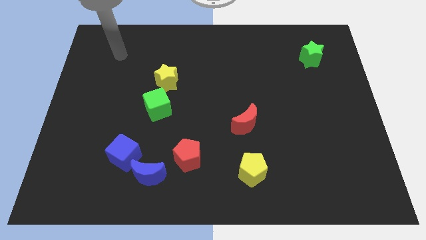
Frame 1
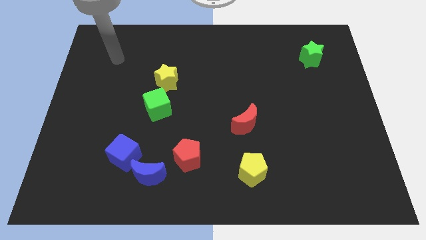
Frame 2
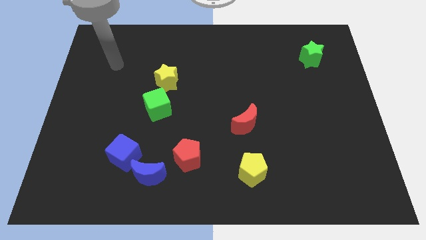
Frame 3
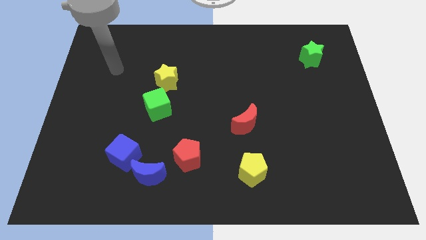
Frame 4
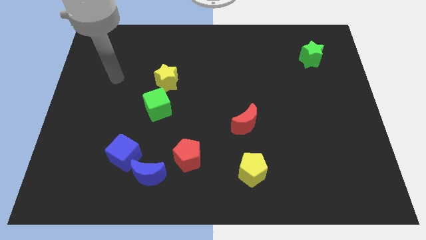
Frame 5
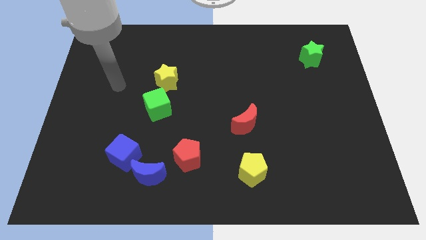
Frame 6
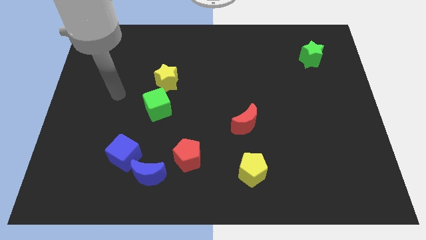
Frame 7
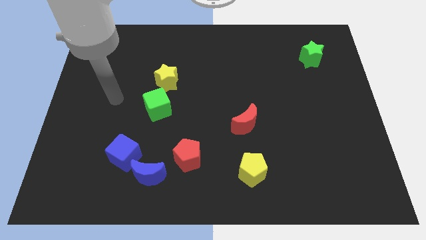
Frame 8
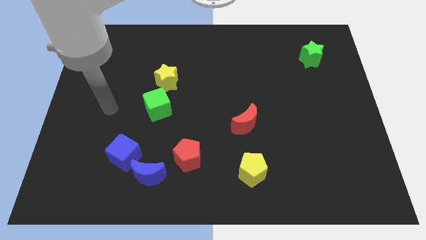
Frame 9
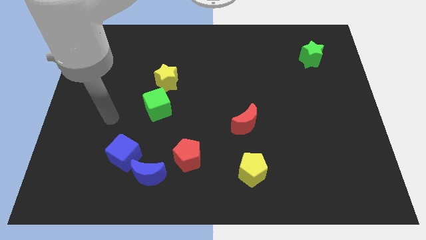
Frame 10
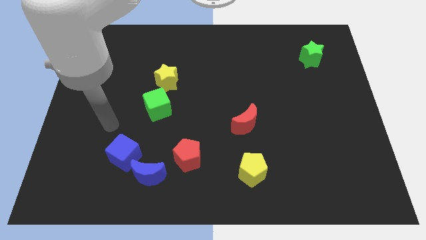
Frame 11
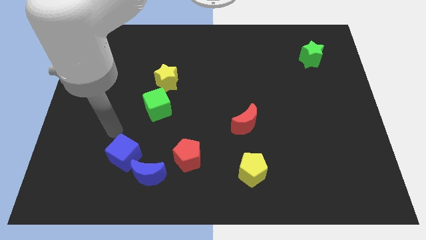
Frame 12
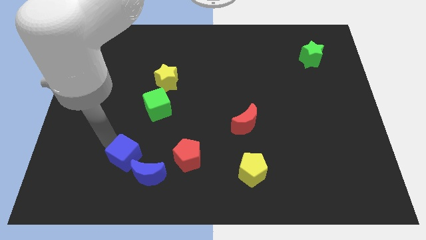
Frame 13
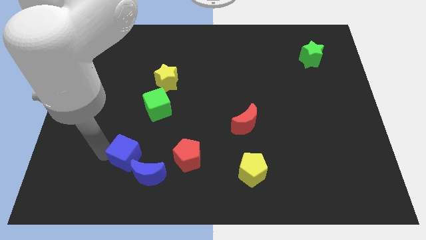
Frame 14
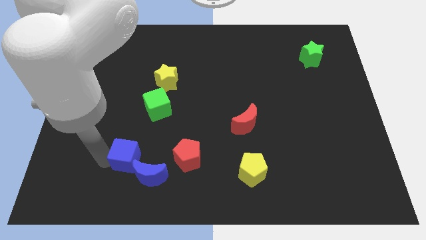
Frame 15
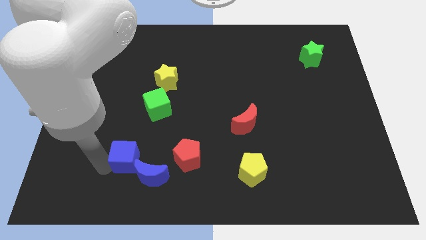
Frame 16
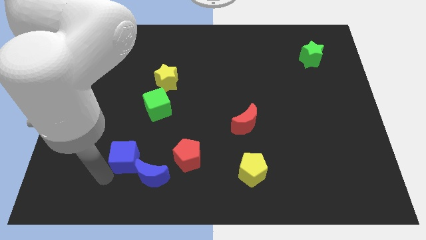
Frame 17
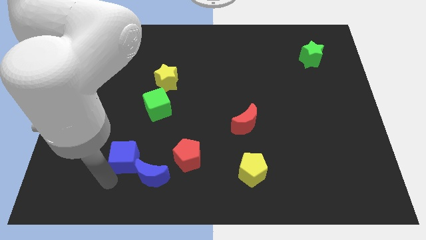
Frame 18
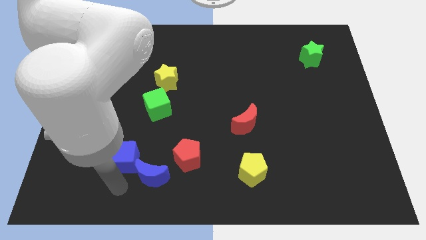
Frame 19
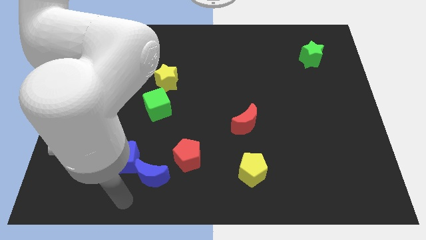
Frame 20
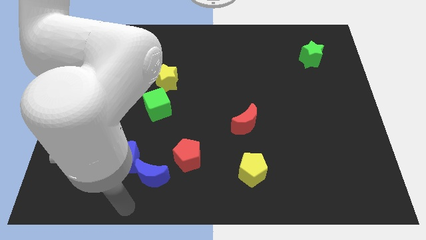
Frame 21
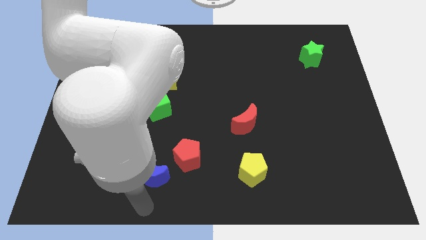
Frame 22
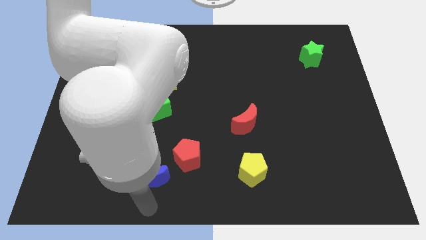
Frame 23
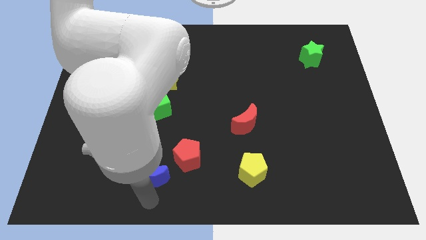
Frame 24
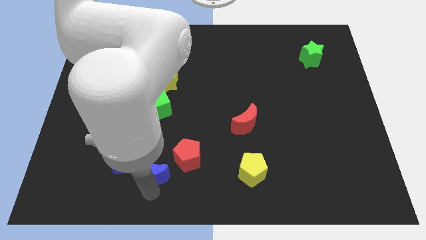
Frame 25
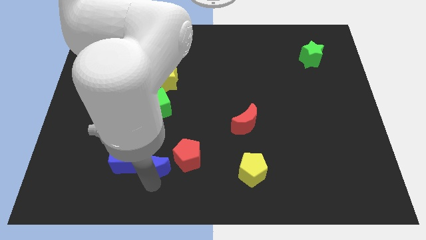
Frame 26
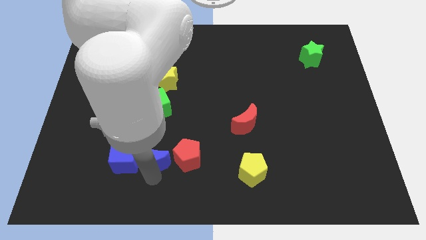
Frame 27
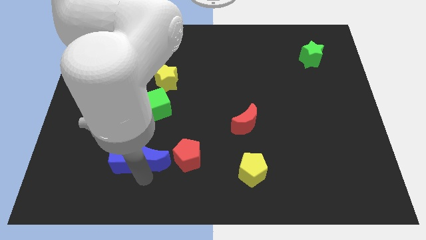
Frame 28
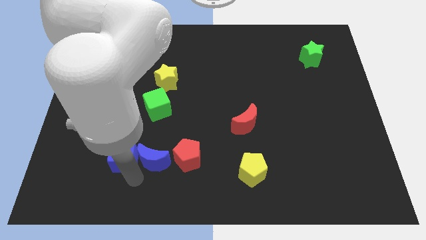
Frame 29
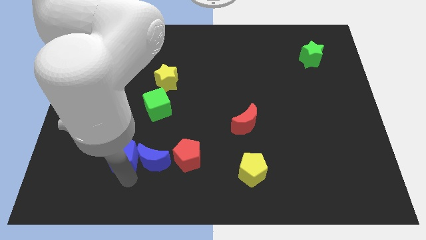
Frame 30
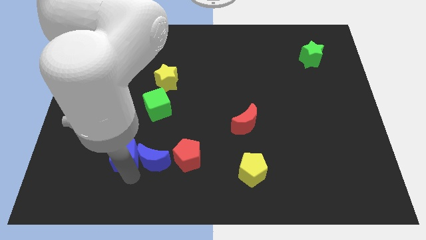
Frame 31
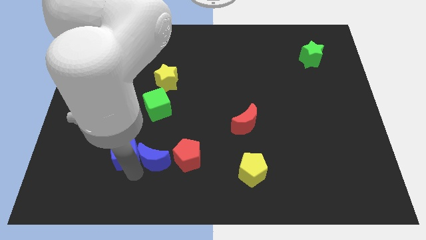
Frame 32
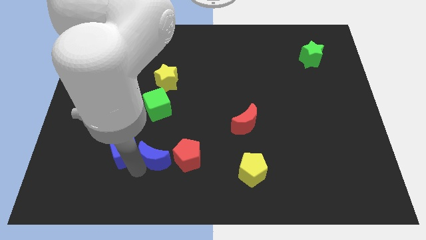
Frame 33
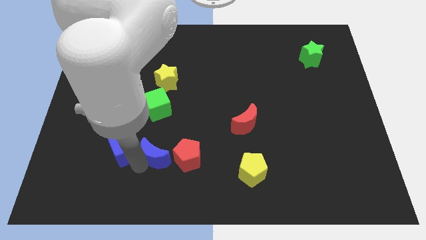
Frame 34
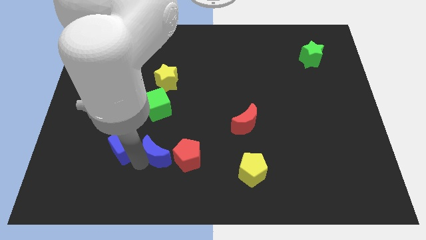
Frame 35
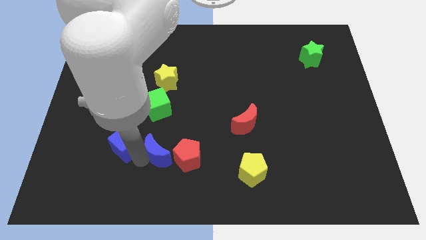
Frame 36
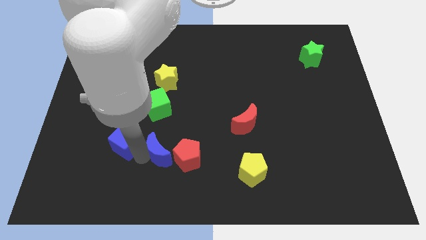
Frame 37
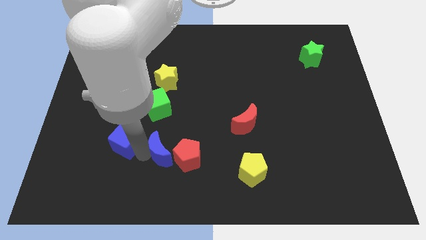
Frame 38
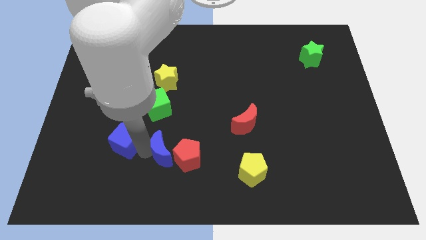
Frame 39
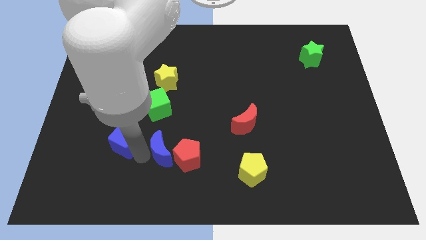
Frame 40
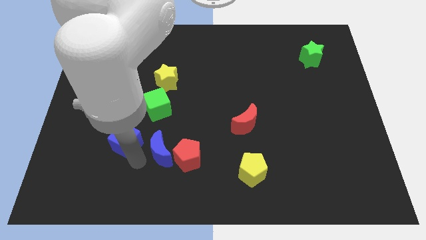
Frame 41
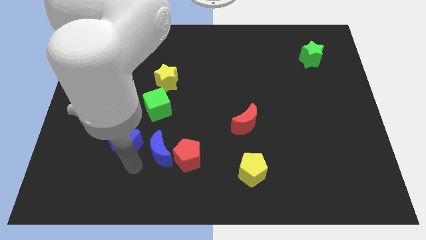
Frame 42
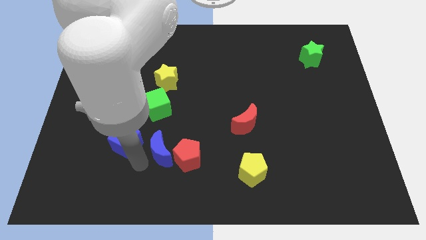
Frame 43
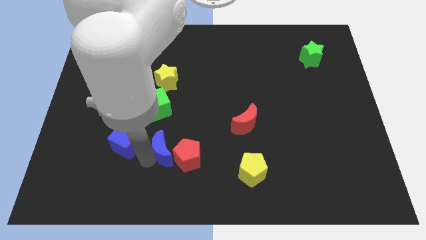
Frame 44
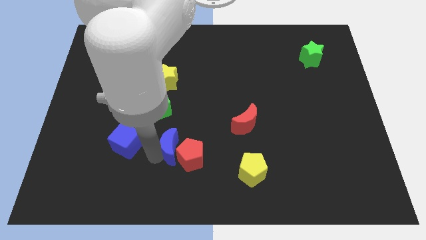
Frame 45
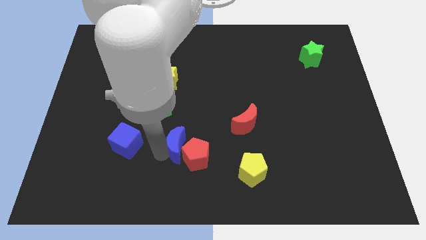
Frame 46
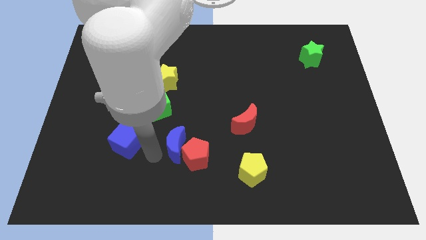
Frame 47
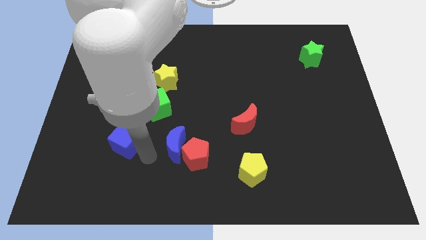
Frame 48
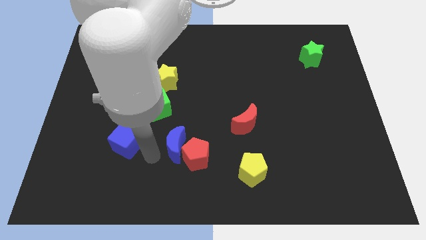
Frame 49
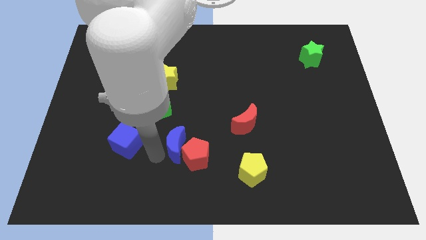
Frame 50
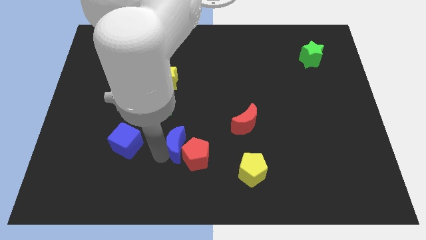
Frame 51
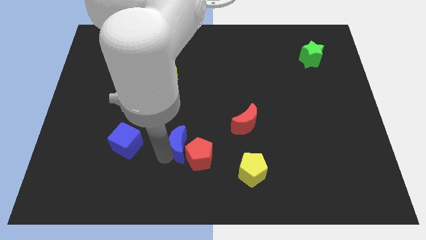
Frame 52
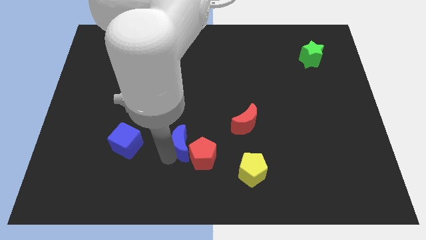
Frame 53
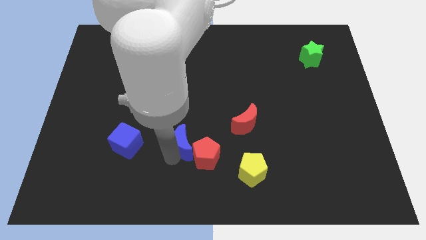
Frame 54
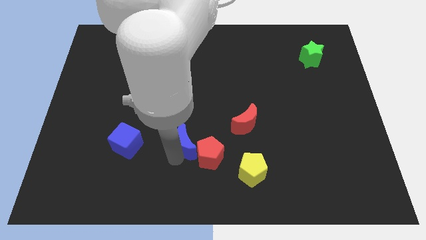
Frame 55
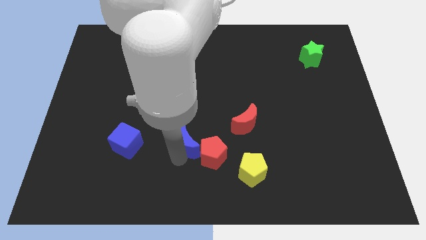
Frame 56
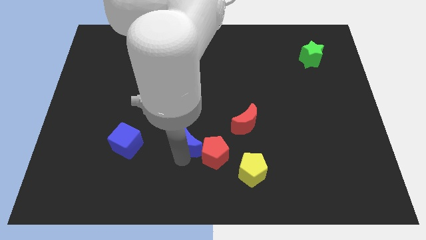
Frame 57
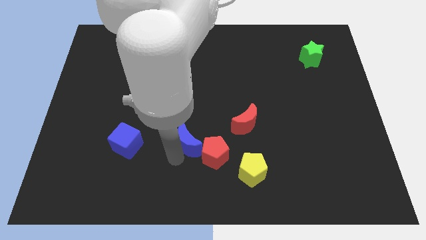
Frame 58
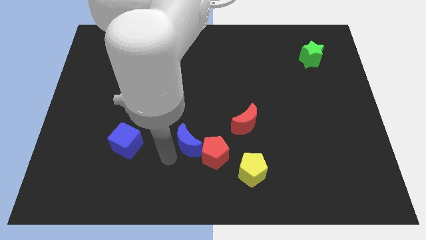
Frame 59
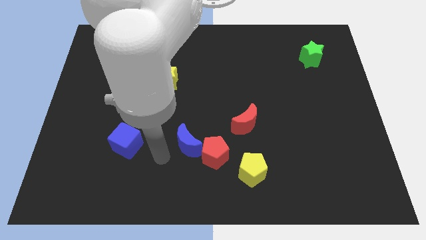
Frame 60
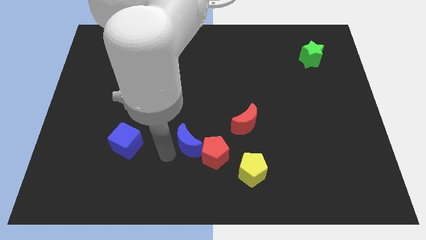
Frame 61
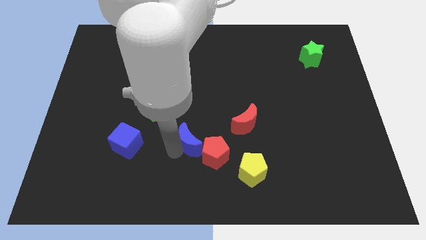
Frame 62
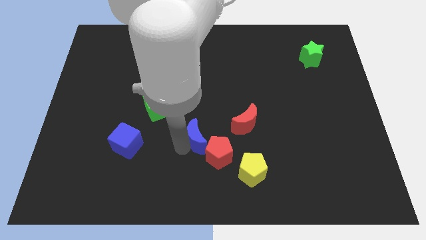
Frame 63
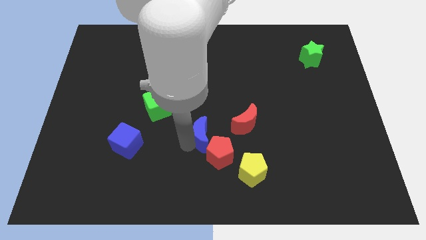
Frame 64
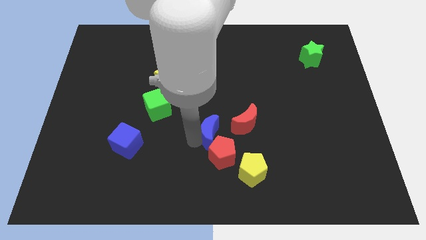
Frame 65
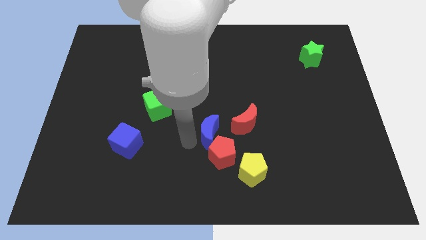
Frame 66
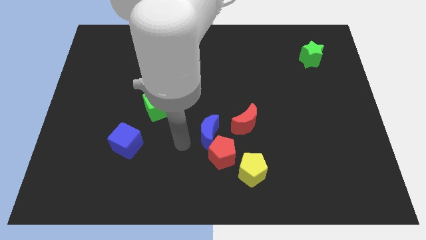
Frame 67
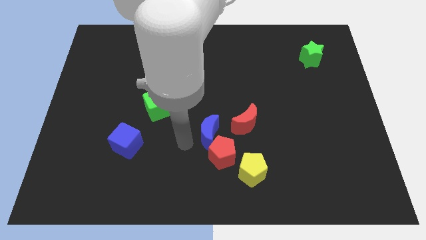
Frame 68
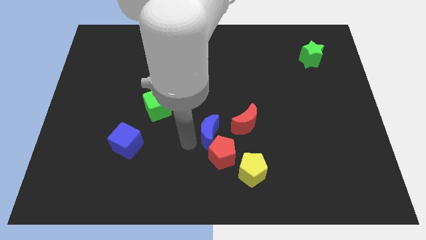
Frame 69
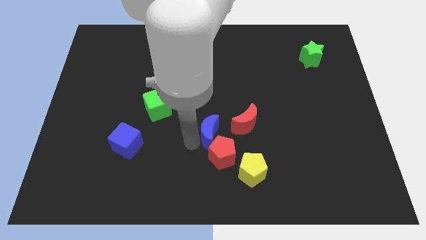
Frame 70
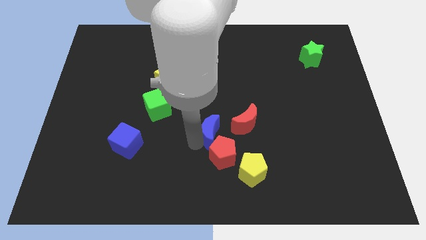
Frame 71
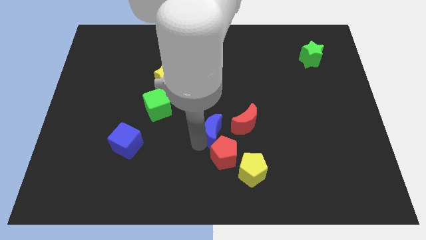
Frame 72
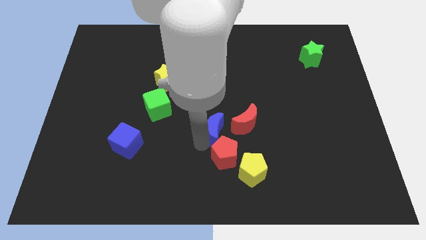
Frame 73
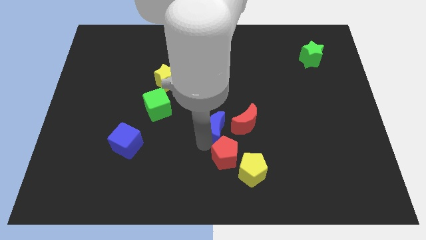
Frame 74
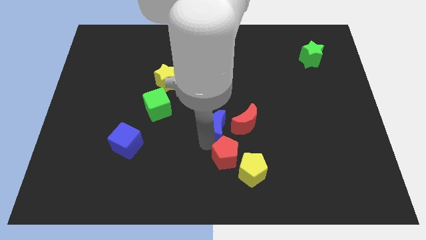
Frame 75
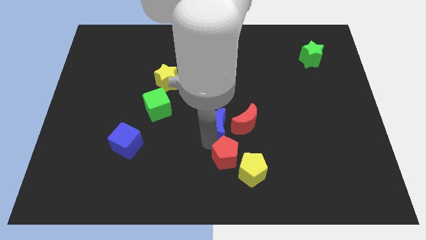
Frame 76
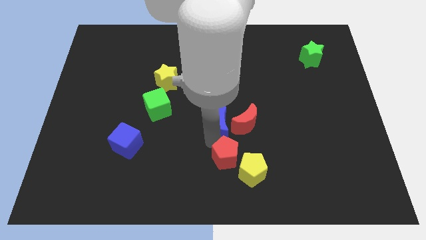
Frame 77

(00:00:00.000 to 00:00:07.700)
push the blue moon to the red moon

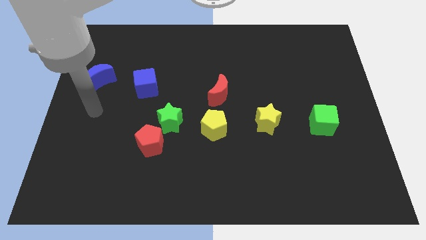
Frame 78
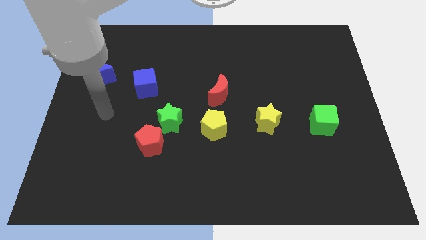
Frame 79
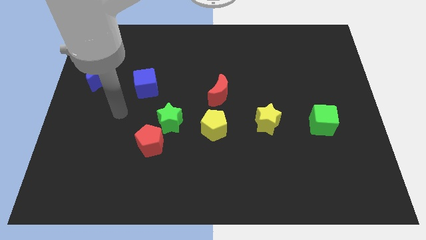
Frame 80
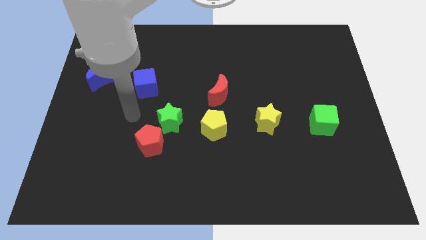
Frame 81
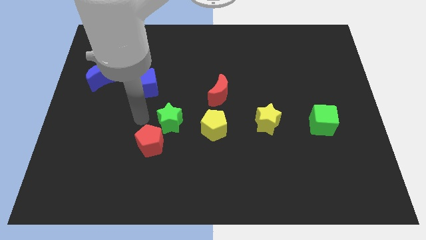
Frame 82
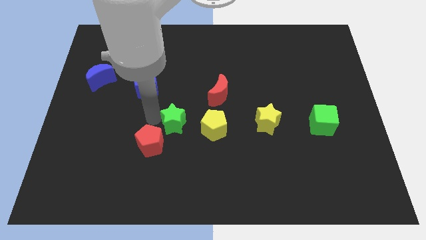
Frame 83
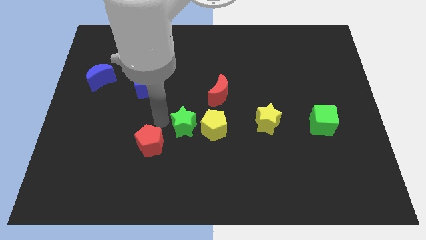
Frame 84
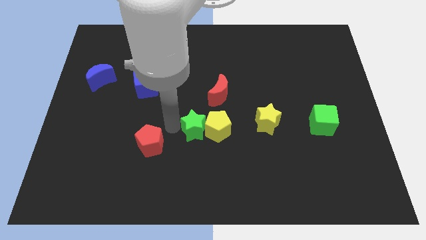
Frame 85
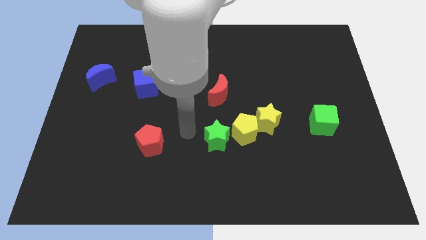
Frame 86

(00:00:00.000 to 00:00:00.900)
slide the yellow pentagon close to the yellow star
